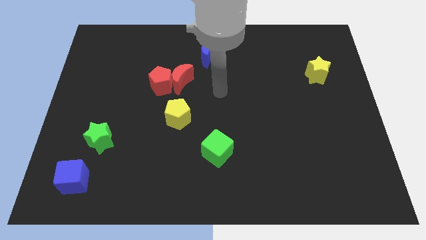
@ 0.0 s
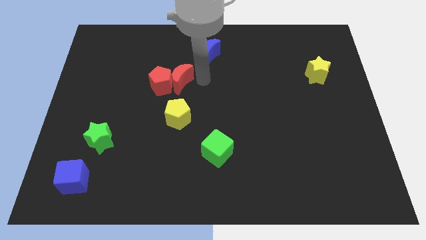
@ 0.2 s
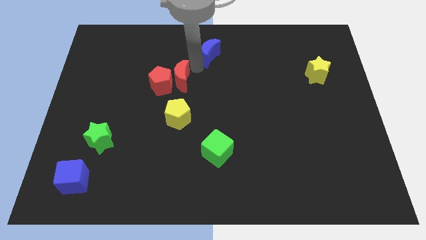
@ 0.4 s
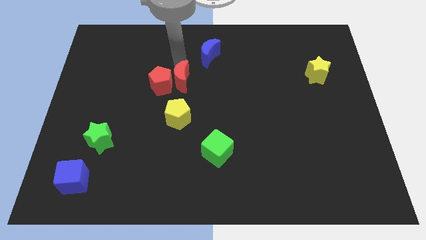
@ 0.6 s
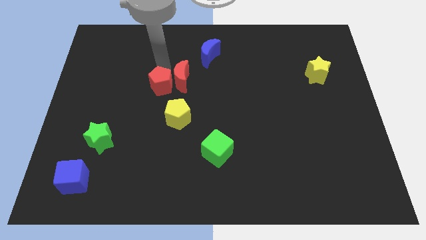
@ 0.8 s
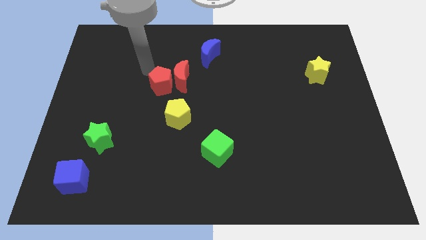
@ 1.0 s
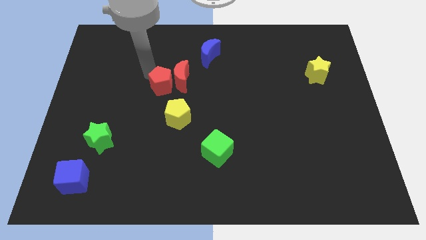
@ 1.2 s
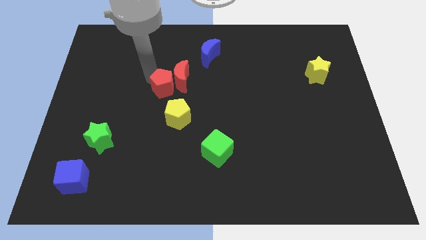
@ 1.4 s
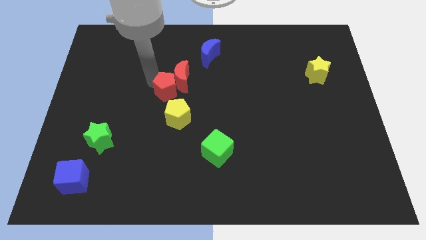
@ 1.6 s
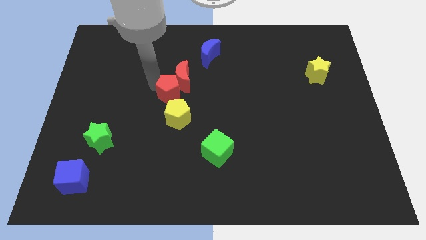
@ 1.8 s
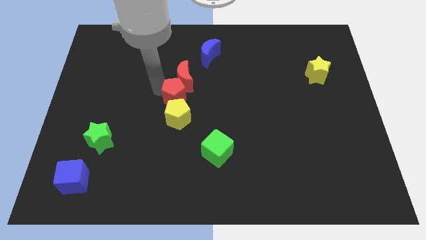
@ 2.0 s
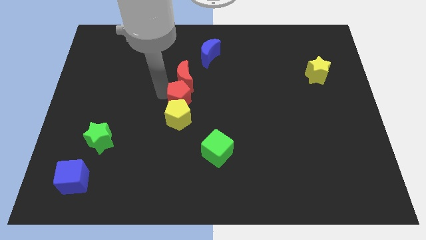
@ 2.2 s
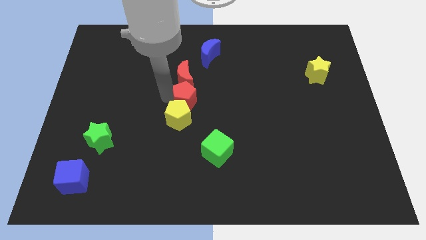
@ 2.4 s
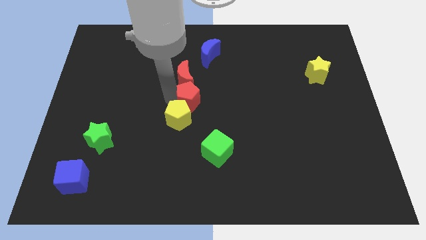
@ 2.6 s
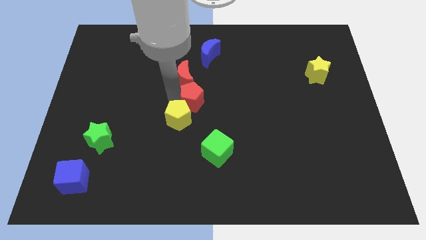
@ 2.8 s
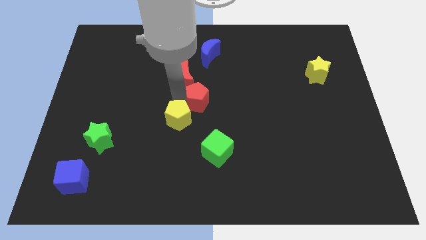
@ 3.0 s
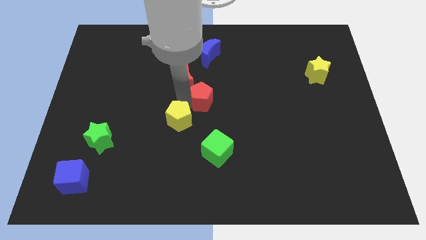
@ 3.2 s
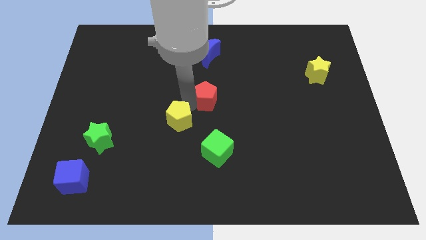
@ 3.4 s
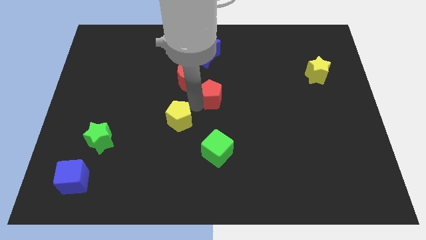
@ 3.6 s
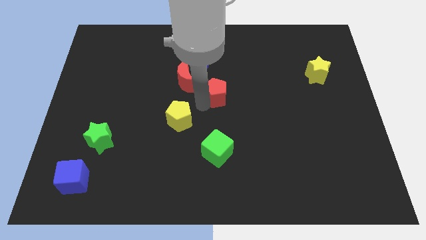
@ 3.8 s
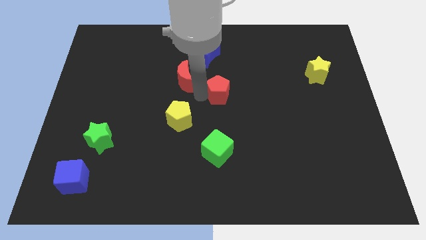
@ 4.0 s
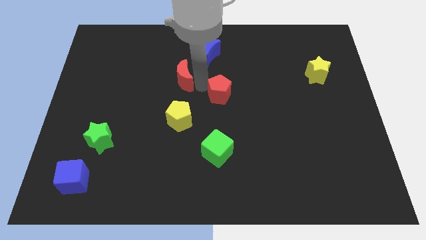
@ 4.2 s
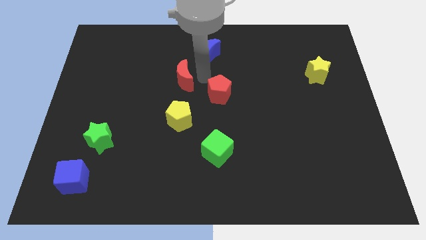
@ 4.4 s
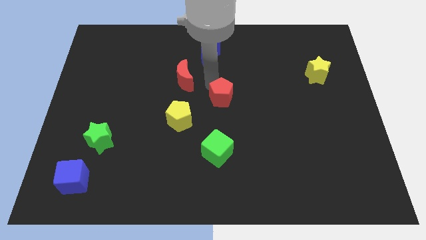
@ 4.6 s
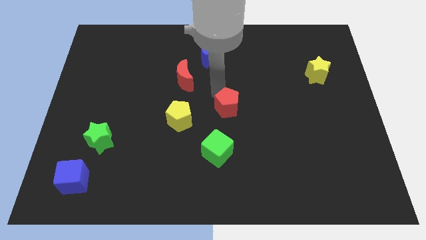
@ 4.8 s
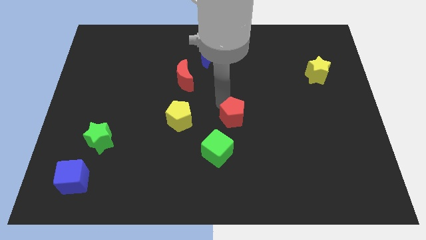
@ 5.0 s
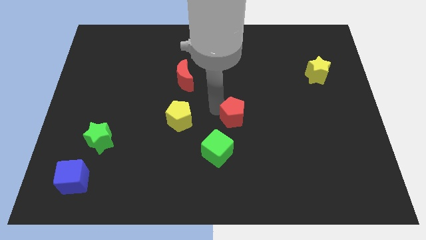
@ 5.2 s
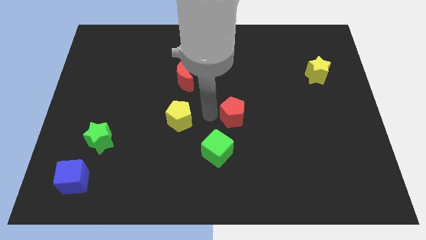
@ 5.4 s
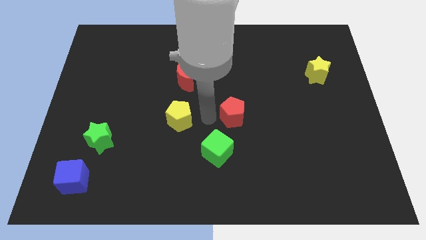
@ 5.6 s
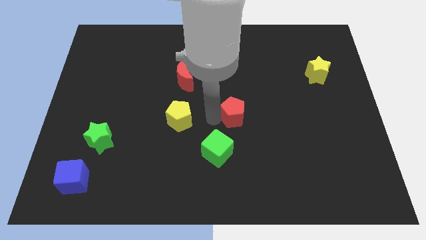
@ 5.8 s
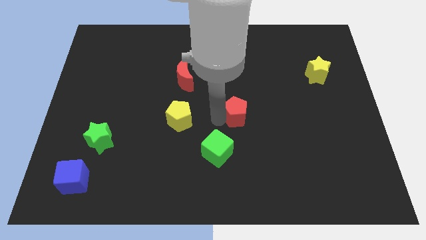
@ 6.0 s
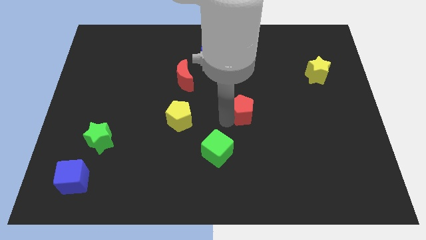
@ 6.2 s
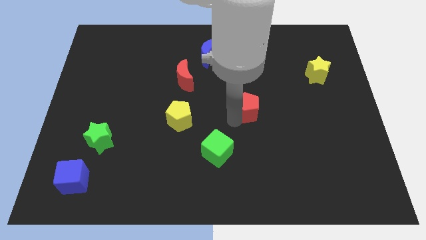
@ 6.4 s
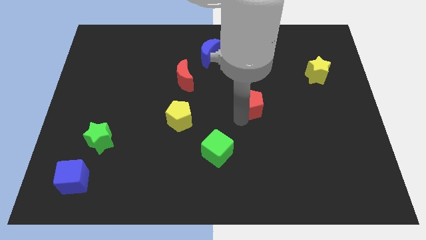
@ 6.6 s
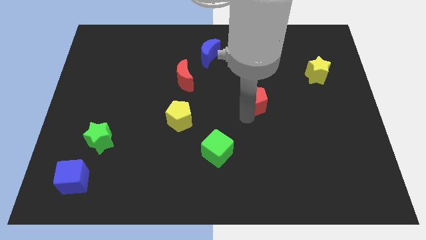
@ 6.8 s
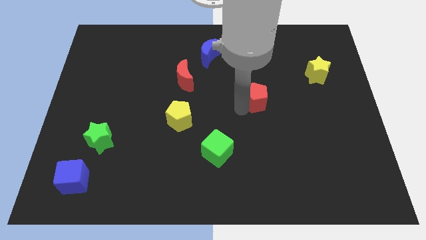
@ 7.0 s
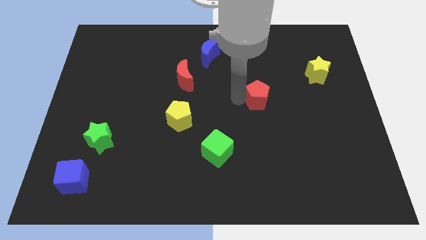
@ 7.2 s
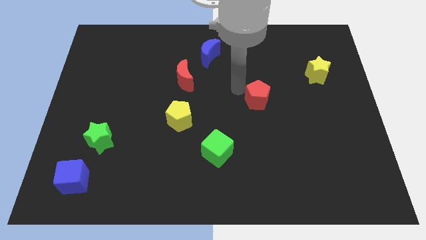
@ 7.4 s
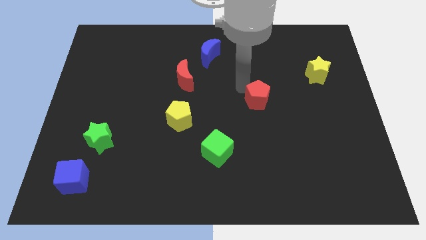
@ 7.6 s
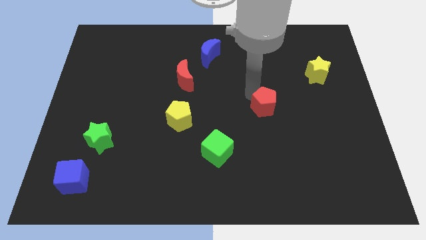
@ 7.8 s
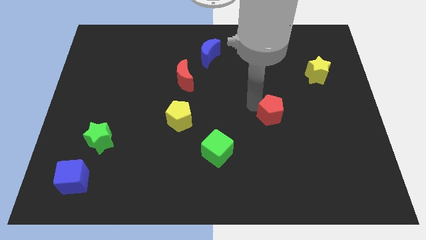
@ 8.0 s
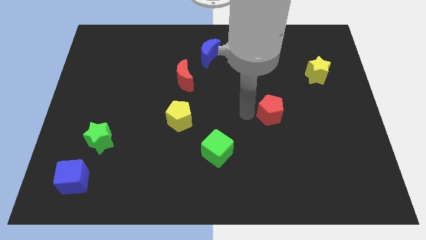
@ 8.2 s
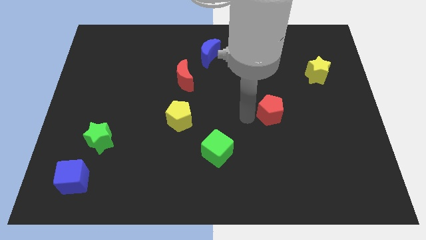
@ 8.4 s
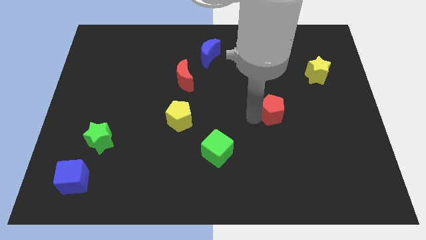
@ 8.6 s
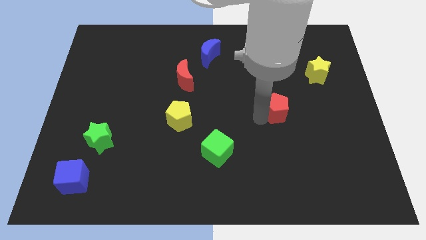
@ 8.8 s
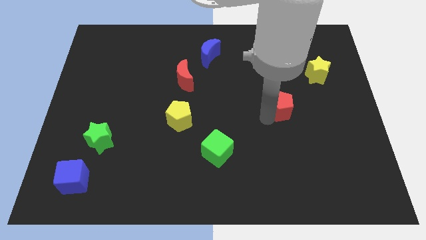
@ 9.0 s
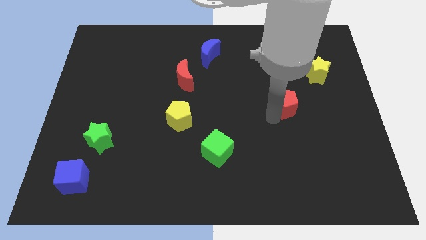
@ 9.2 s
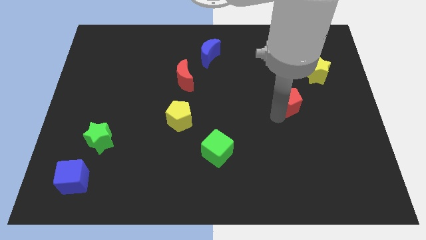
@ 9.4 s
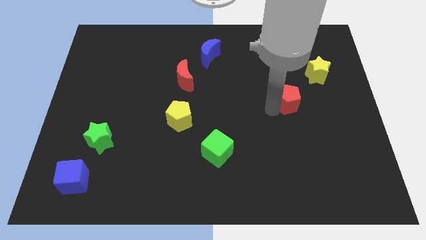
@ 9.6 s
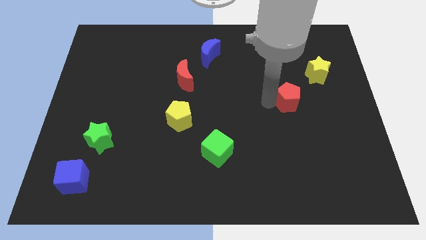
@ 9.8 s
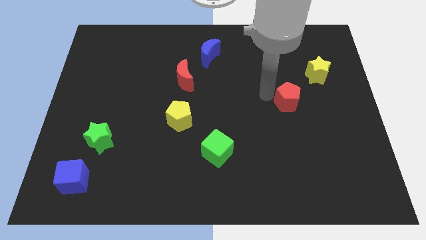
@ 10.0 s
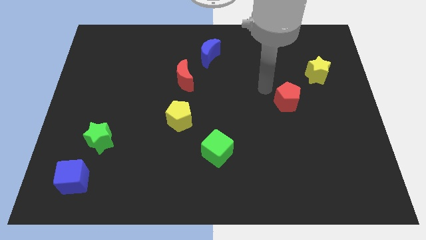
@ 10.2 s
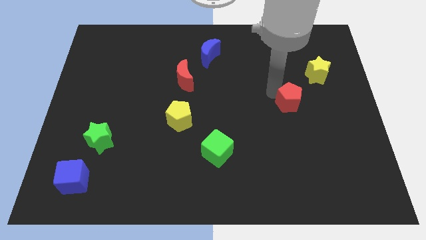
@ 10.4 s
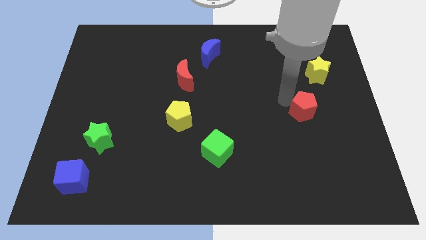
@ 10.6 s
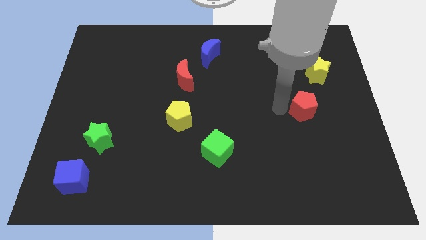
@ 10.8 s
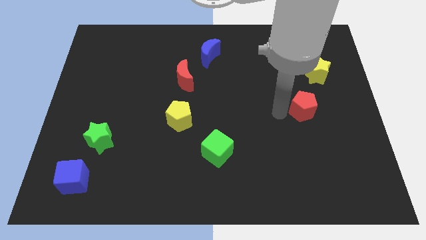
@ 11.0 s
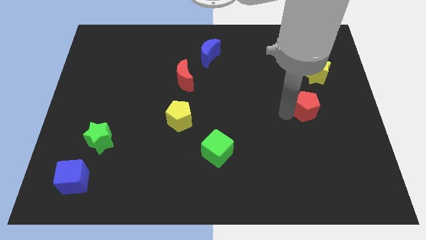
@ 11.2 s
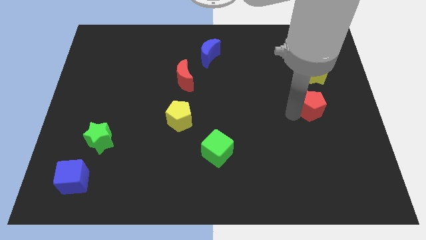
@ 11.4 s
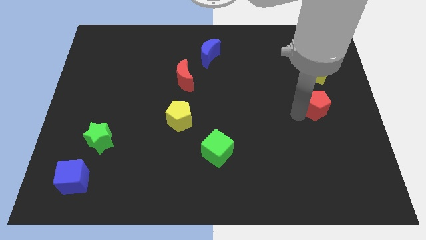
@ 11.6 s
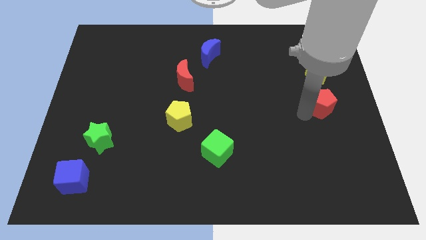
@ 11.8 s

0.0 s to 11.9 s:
move the red pentagon to the center right
